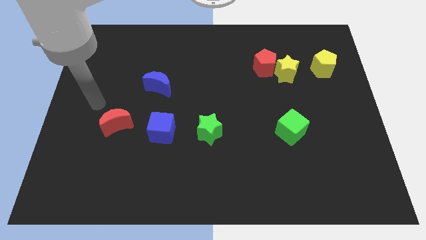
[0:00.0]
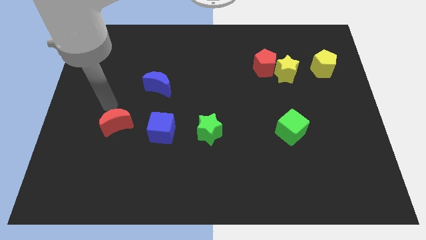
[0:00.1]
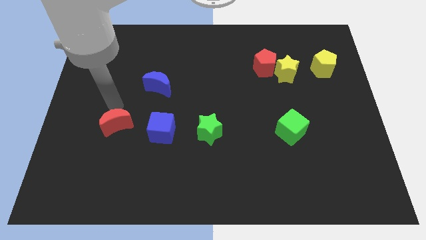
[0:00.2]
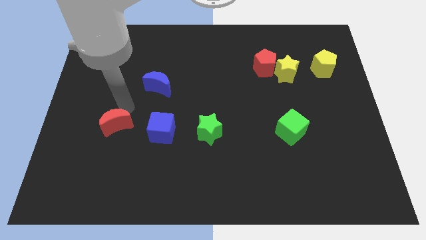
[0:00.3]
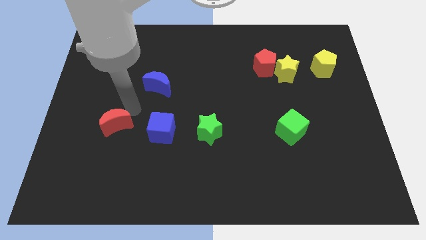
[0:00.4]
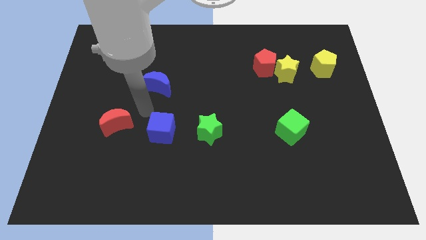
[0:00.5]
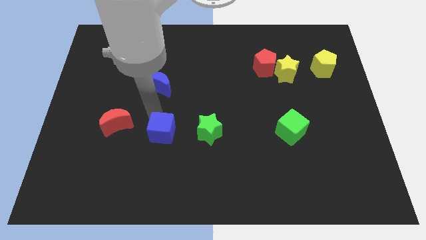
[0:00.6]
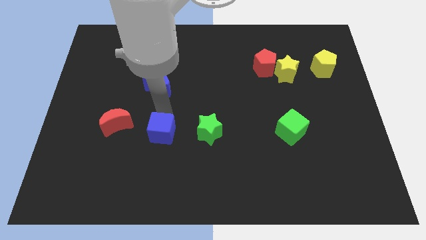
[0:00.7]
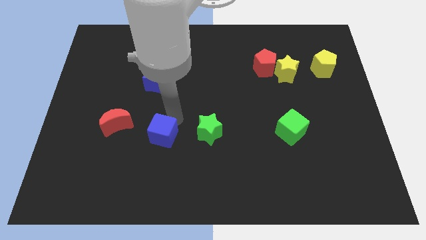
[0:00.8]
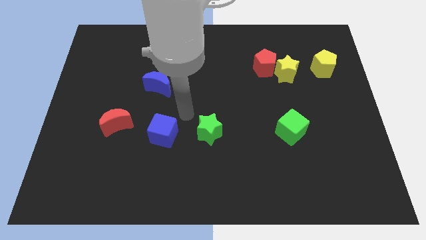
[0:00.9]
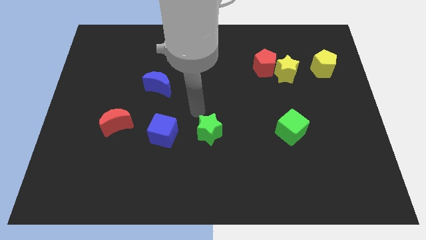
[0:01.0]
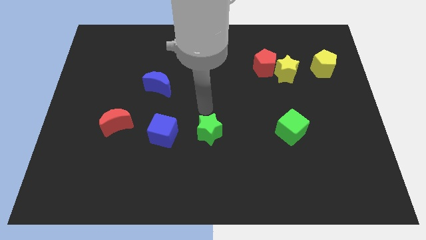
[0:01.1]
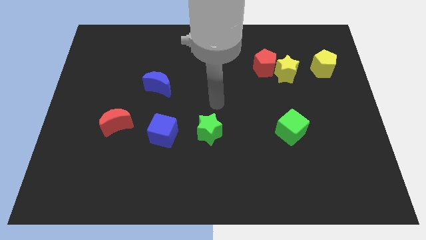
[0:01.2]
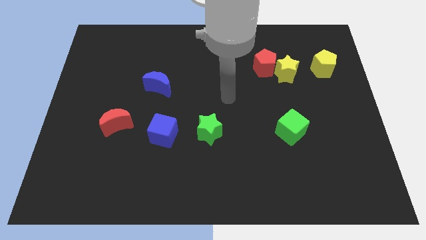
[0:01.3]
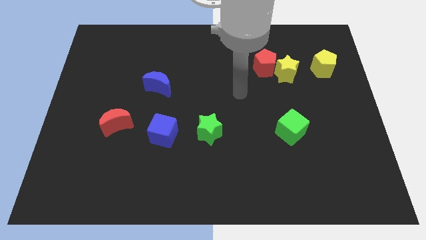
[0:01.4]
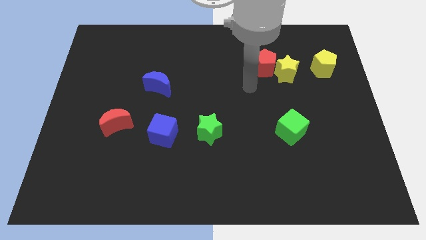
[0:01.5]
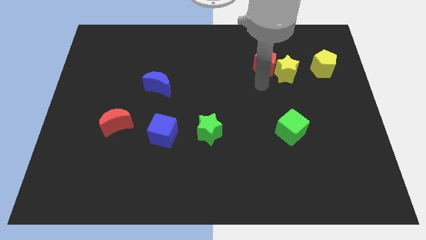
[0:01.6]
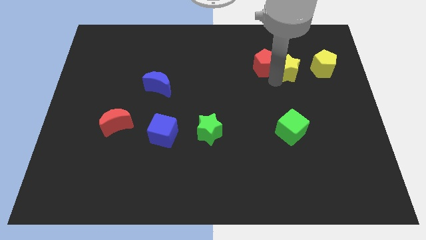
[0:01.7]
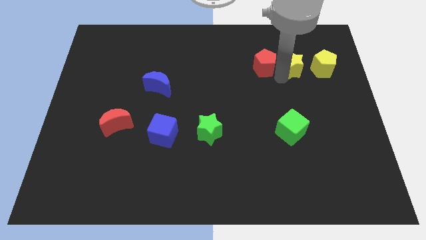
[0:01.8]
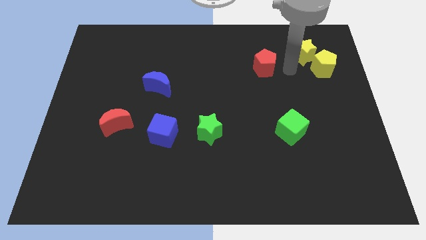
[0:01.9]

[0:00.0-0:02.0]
move the red pentagon away from the yellow star

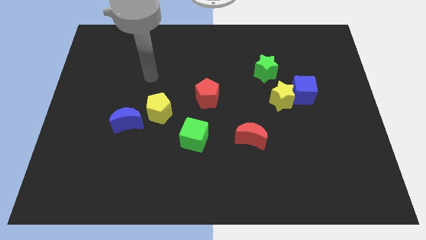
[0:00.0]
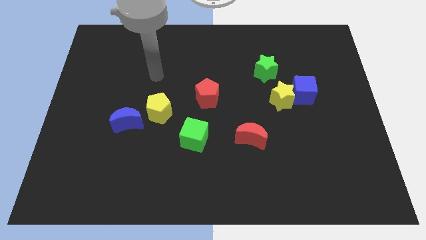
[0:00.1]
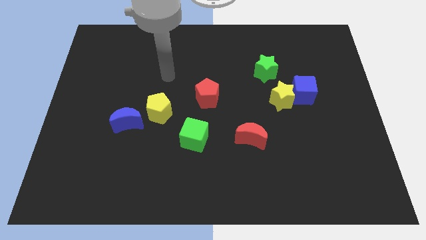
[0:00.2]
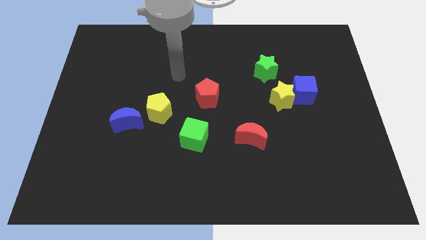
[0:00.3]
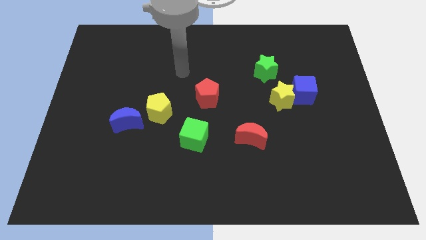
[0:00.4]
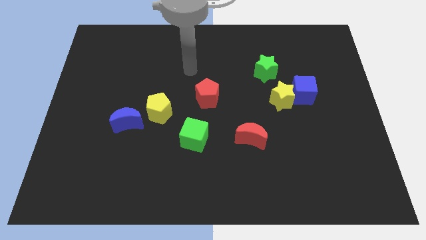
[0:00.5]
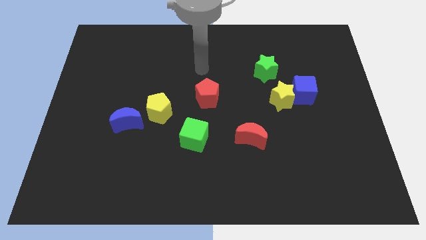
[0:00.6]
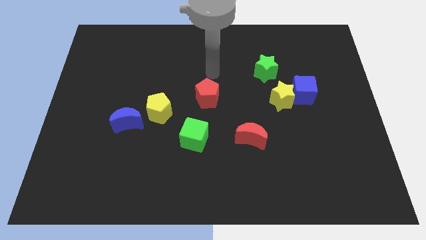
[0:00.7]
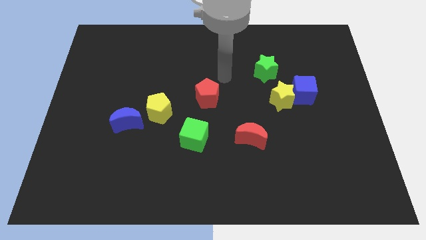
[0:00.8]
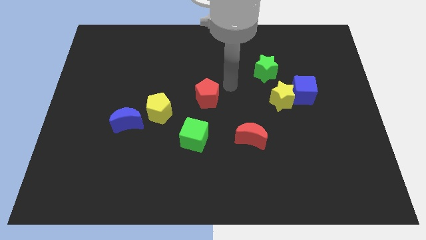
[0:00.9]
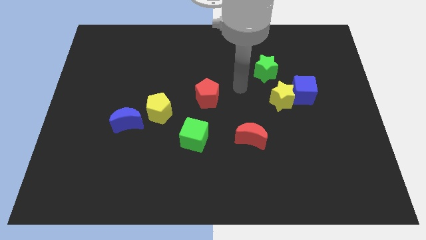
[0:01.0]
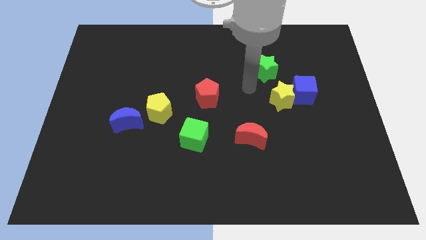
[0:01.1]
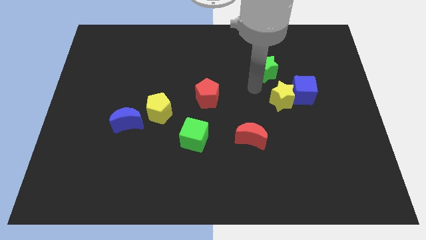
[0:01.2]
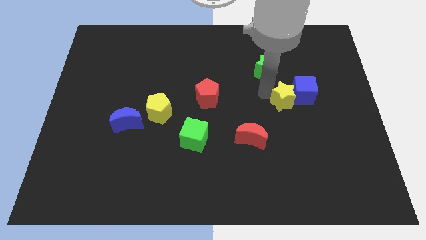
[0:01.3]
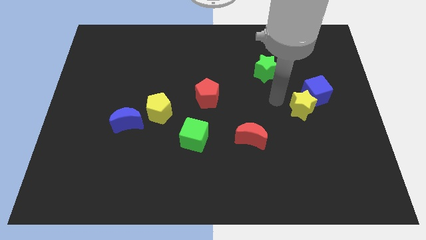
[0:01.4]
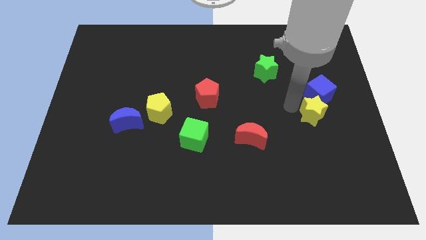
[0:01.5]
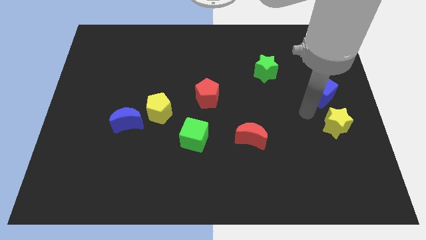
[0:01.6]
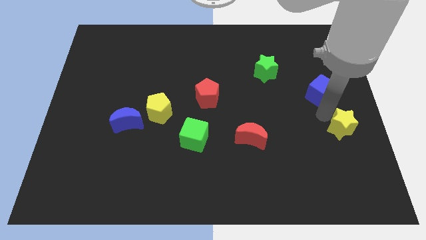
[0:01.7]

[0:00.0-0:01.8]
move the blue cube away from the yellow star

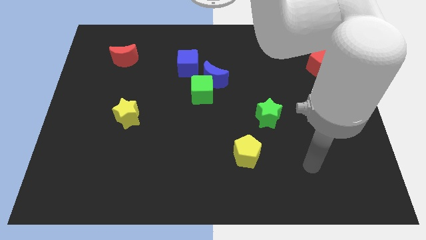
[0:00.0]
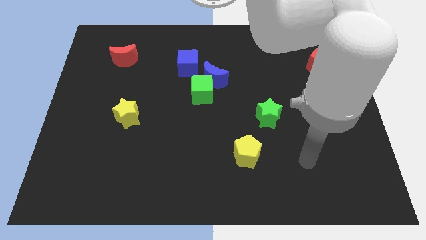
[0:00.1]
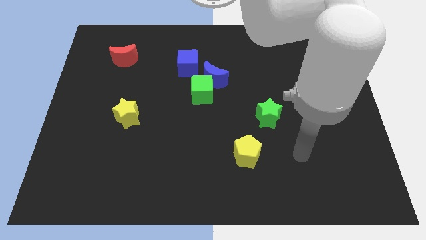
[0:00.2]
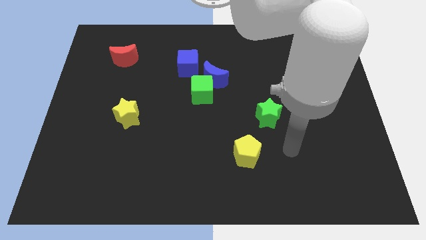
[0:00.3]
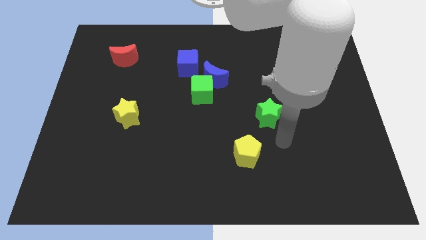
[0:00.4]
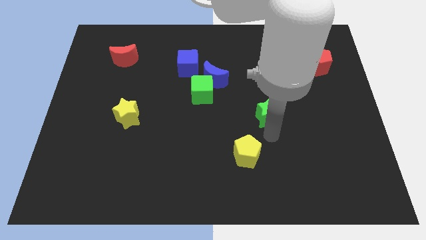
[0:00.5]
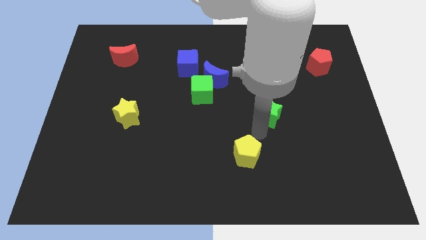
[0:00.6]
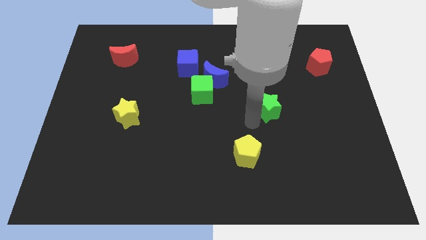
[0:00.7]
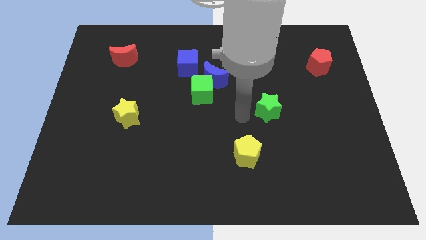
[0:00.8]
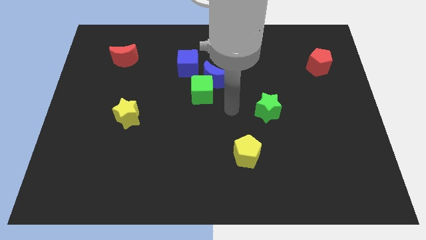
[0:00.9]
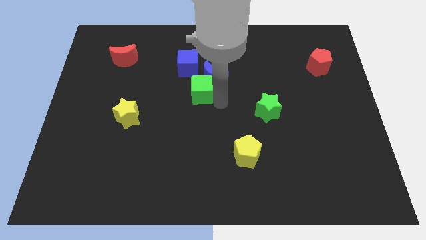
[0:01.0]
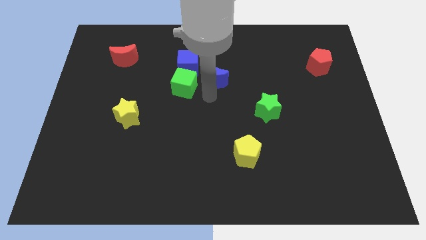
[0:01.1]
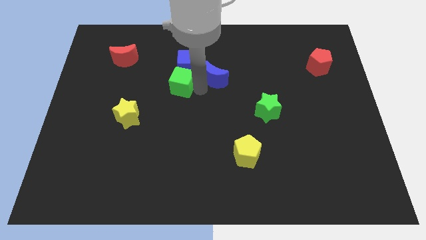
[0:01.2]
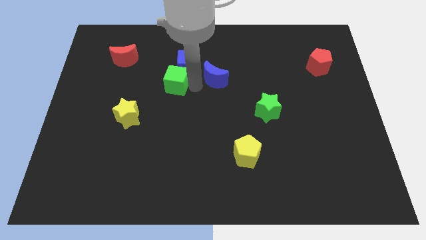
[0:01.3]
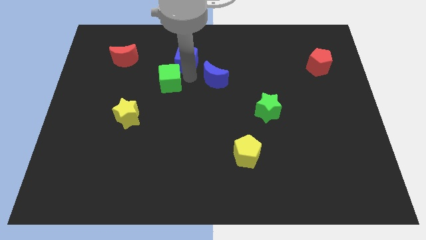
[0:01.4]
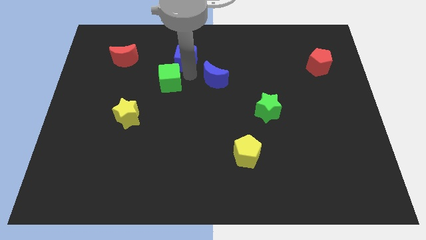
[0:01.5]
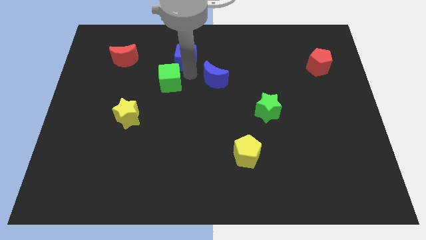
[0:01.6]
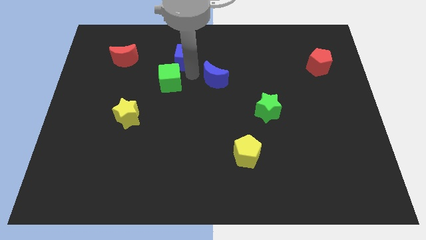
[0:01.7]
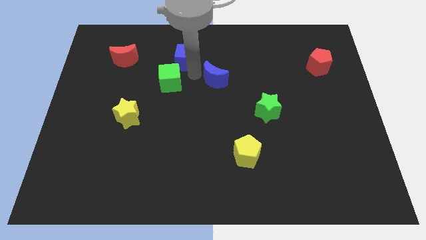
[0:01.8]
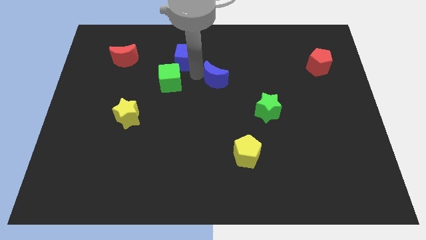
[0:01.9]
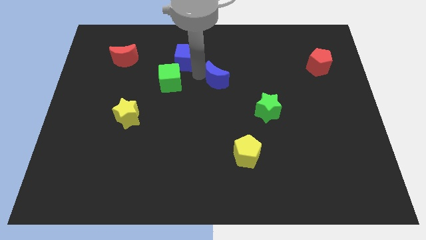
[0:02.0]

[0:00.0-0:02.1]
move the blue moon away from the green cube and blue cube

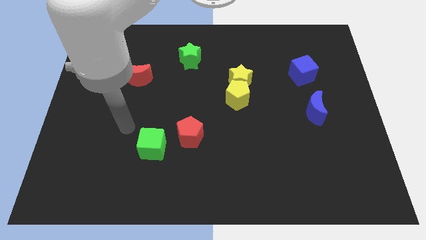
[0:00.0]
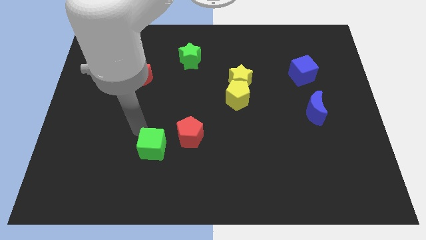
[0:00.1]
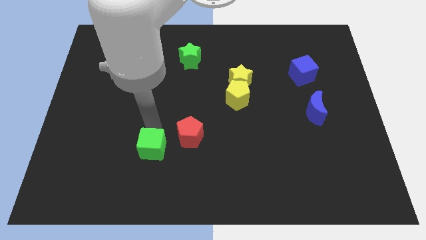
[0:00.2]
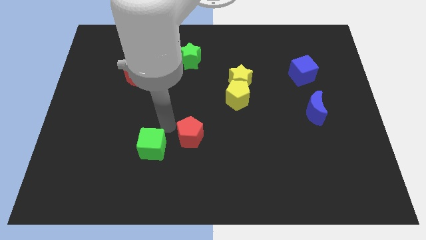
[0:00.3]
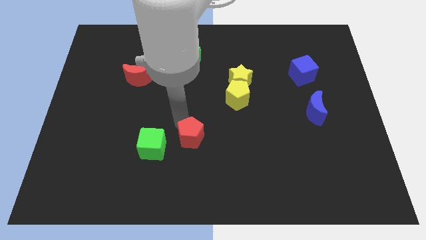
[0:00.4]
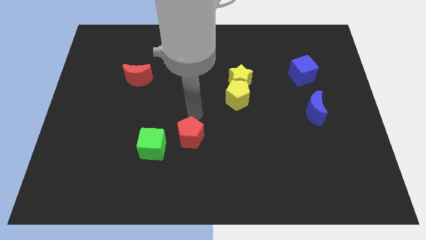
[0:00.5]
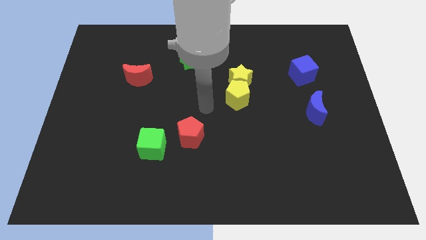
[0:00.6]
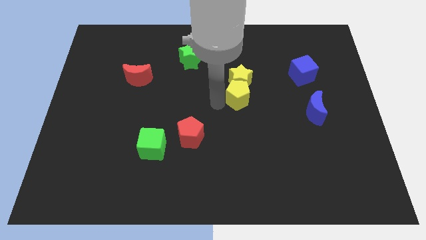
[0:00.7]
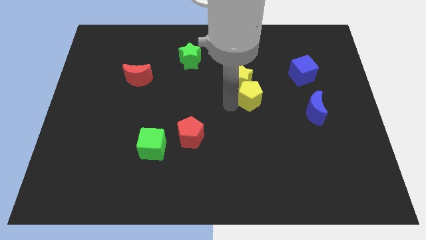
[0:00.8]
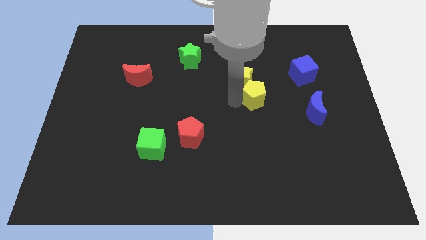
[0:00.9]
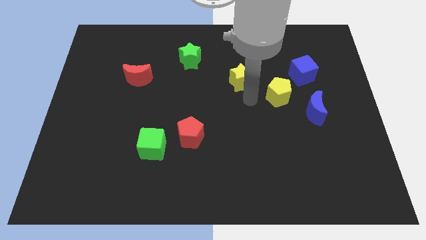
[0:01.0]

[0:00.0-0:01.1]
separate the yellow star from the yellow pentagon

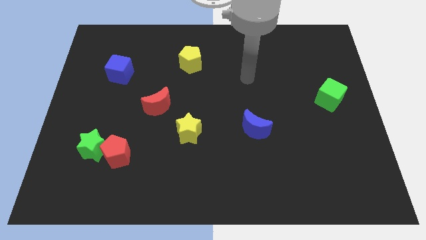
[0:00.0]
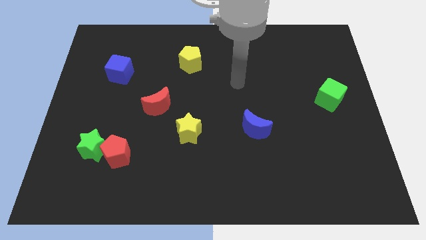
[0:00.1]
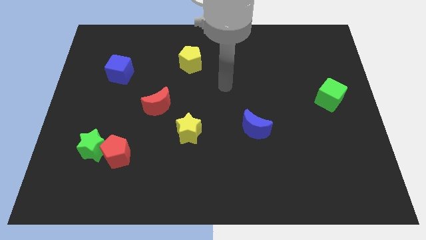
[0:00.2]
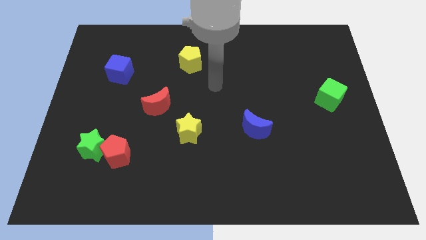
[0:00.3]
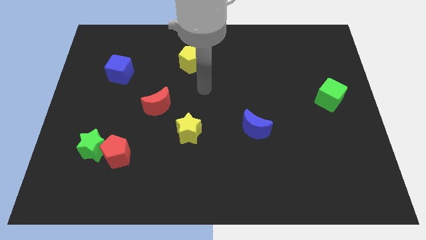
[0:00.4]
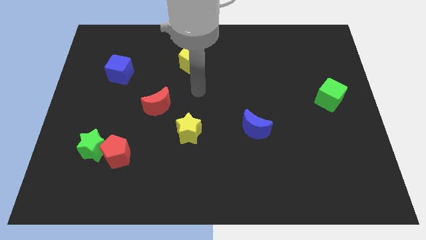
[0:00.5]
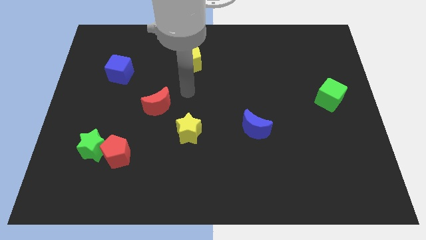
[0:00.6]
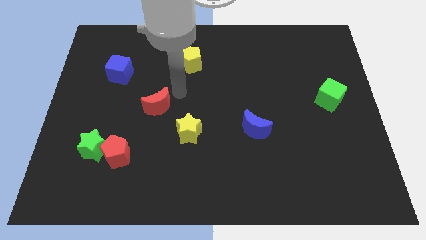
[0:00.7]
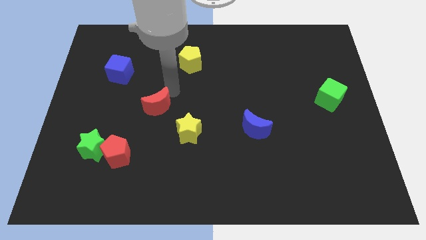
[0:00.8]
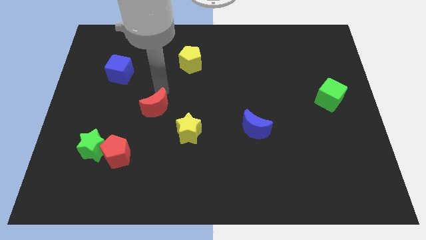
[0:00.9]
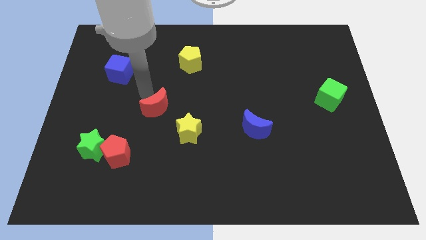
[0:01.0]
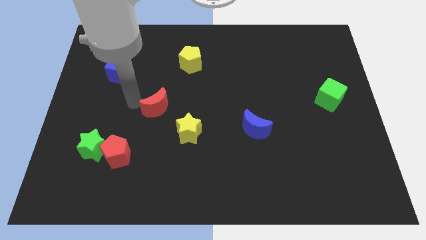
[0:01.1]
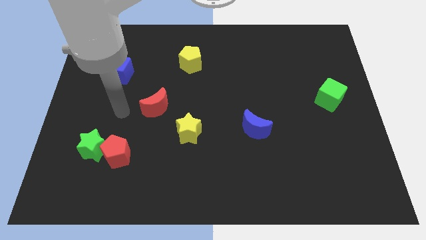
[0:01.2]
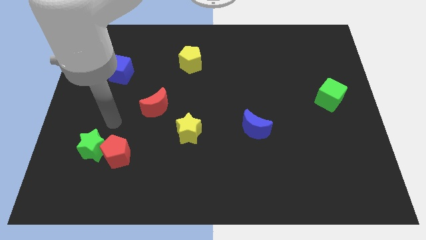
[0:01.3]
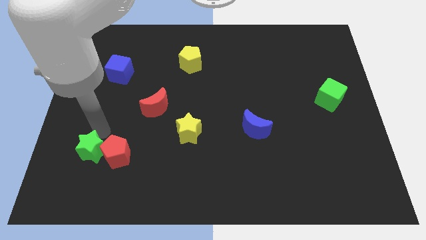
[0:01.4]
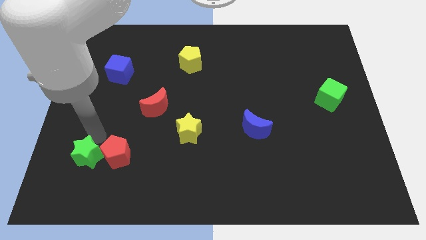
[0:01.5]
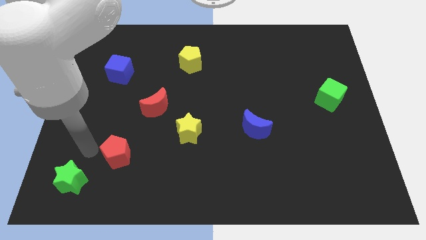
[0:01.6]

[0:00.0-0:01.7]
move the red pentagon away from the green star

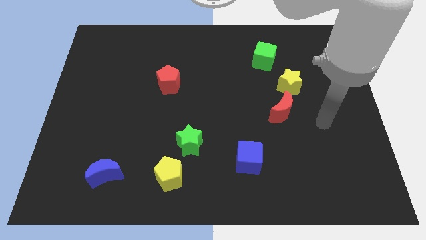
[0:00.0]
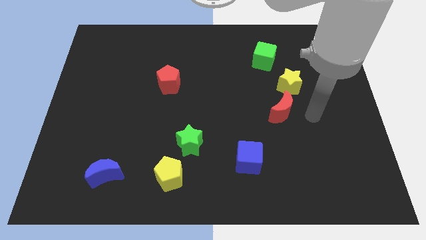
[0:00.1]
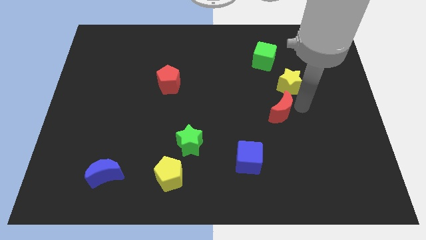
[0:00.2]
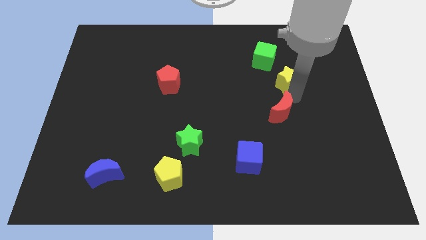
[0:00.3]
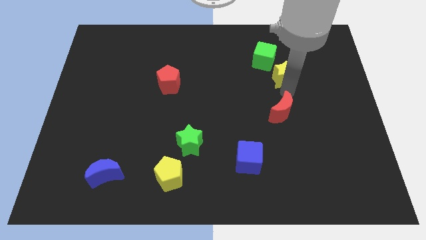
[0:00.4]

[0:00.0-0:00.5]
separate the red moon from the yellow star
